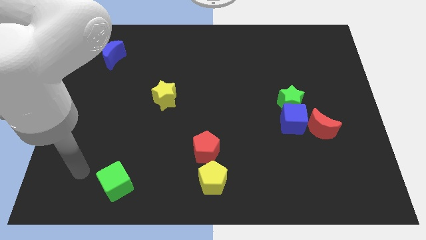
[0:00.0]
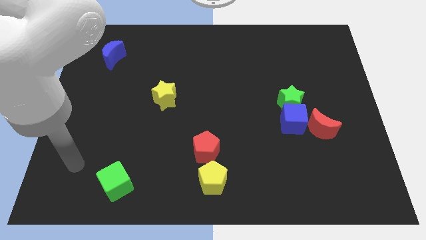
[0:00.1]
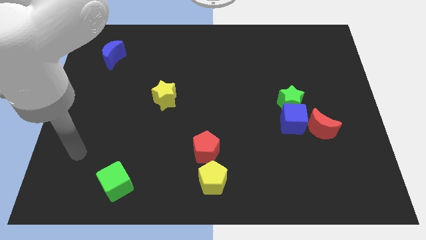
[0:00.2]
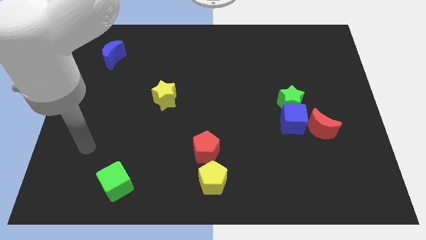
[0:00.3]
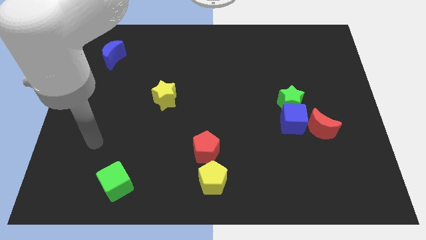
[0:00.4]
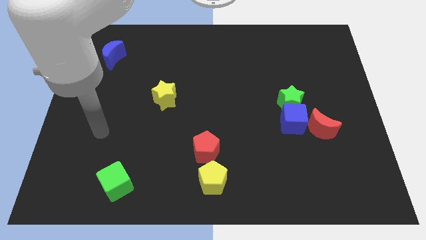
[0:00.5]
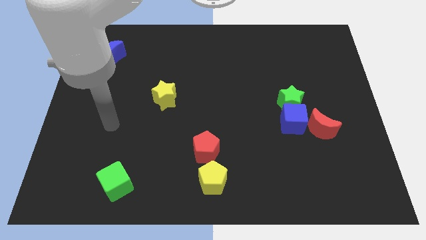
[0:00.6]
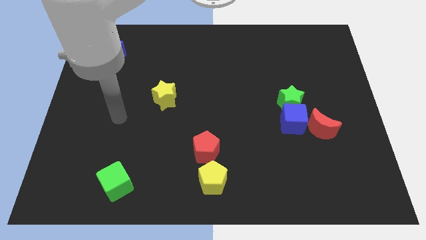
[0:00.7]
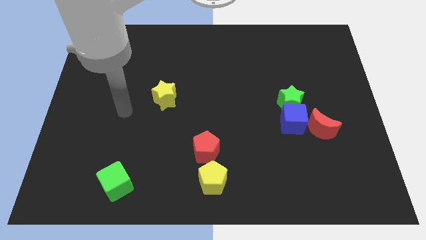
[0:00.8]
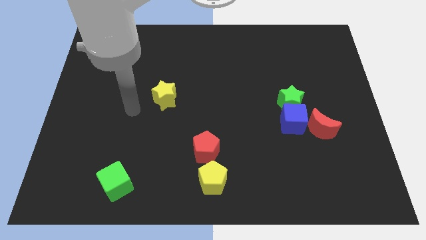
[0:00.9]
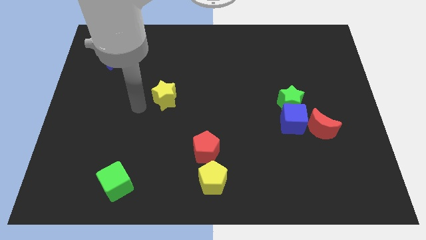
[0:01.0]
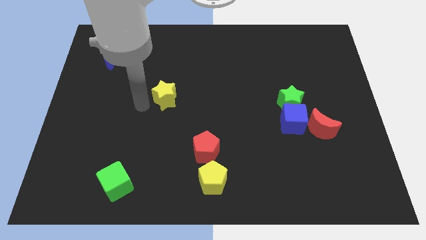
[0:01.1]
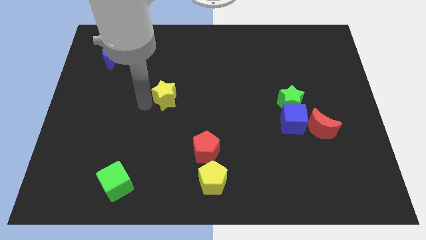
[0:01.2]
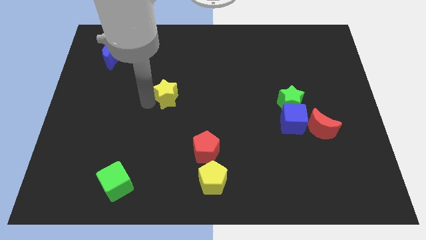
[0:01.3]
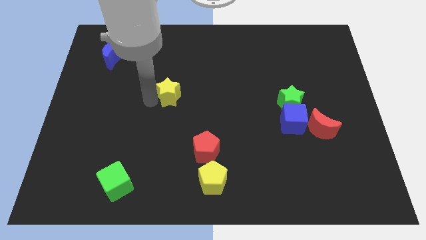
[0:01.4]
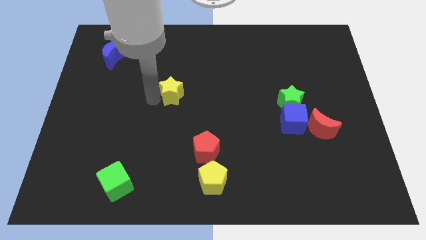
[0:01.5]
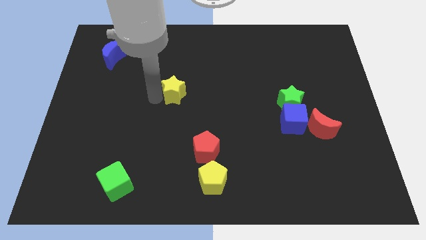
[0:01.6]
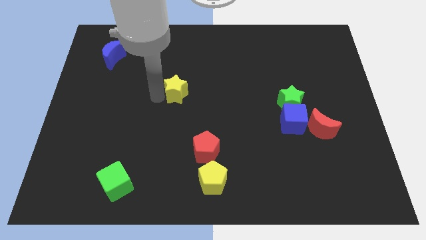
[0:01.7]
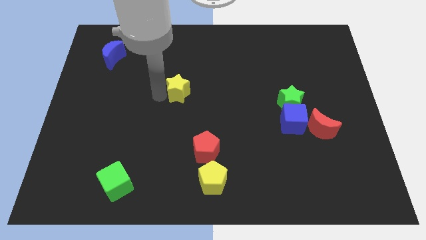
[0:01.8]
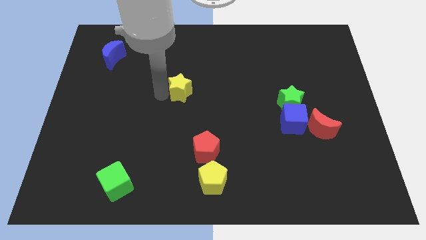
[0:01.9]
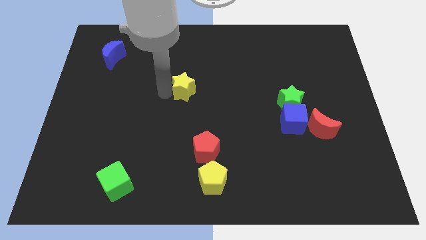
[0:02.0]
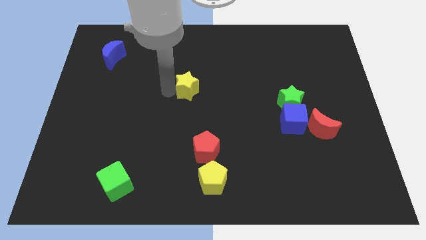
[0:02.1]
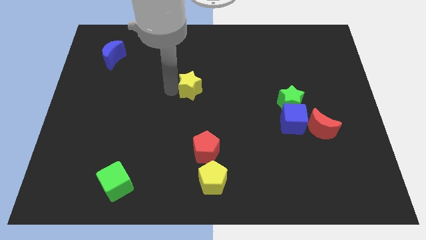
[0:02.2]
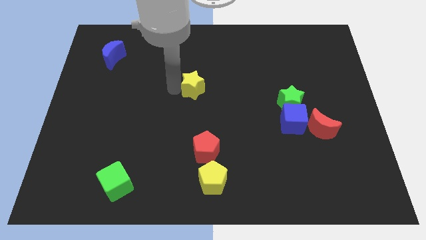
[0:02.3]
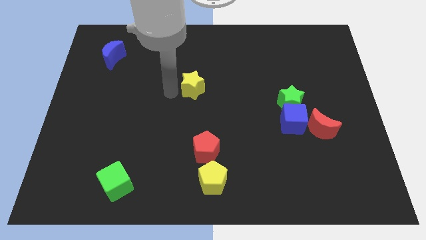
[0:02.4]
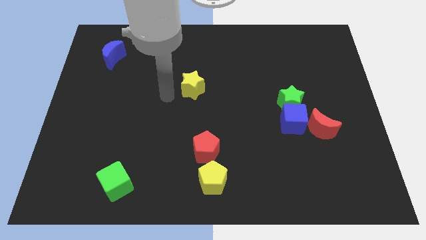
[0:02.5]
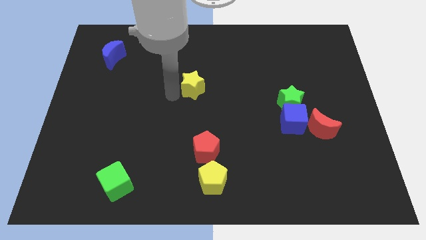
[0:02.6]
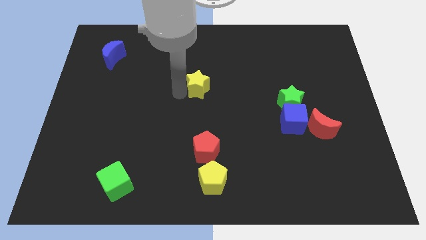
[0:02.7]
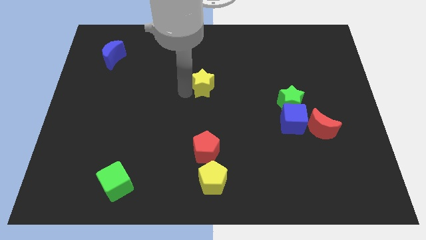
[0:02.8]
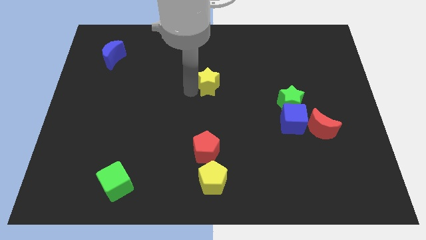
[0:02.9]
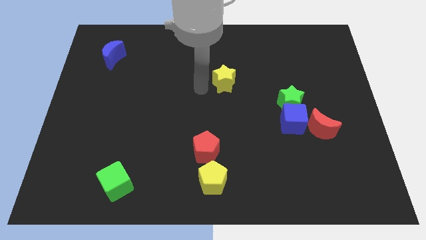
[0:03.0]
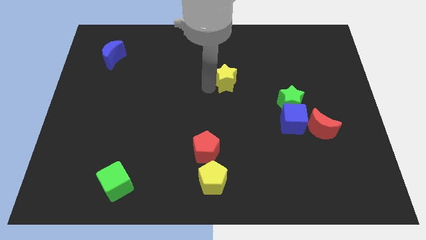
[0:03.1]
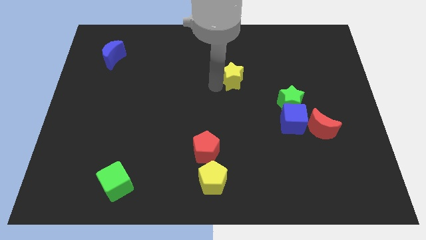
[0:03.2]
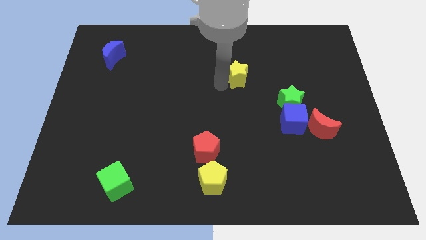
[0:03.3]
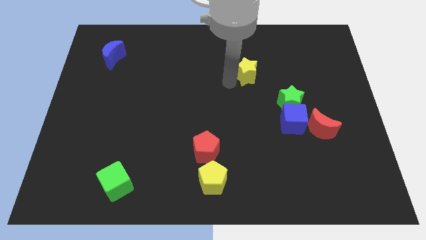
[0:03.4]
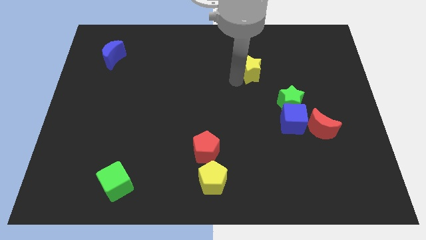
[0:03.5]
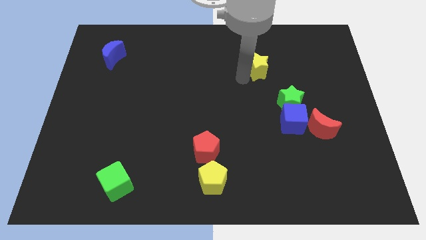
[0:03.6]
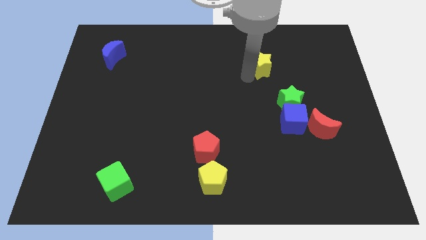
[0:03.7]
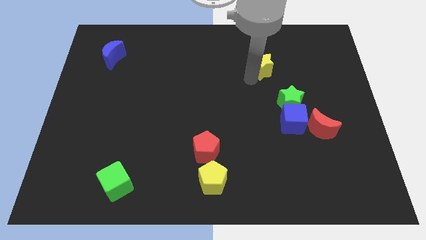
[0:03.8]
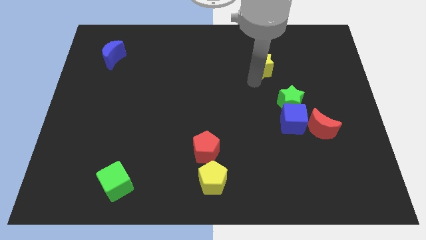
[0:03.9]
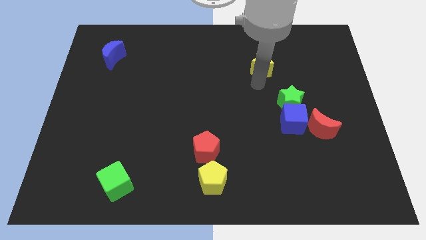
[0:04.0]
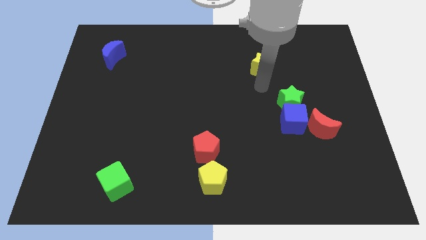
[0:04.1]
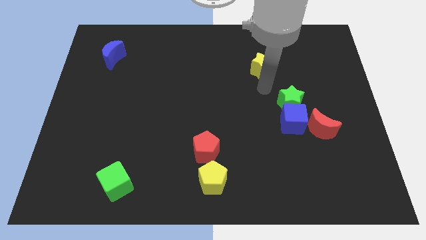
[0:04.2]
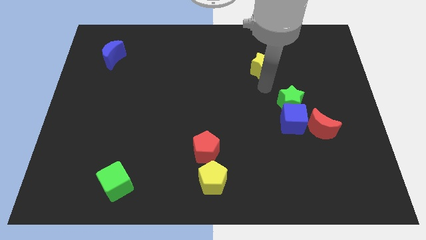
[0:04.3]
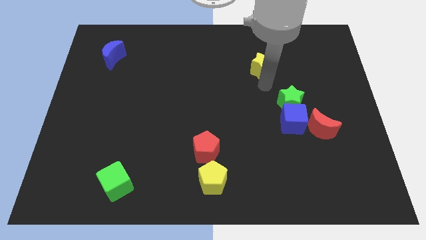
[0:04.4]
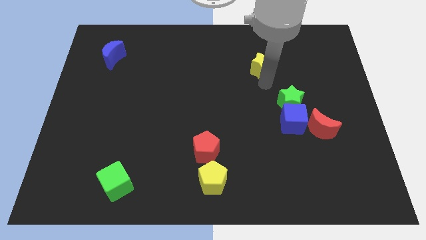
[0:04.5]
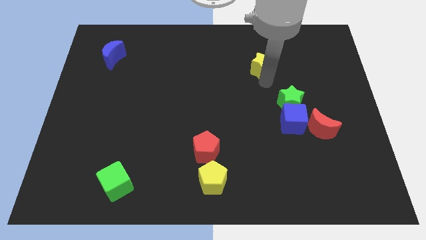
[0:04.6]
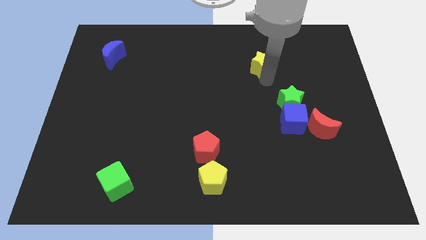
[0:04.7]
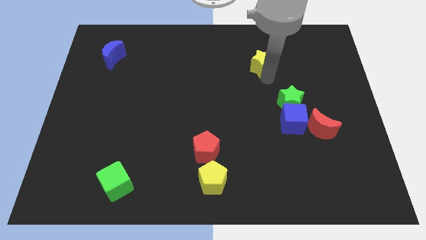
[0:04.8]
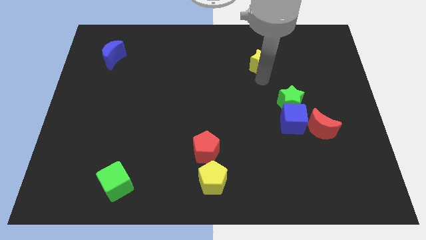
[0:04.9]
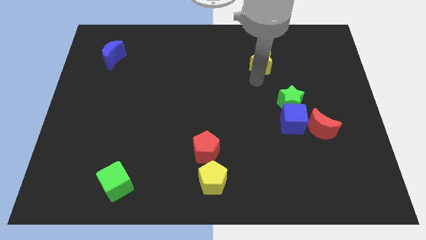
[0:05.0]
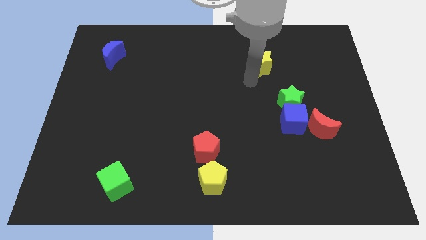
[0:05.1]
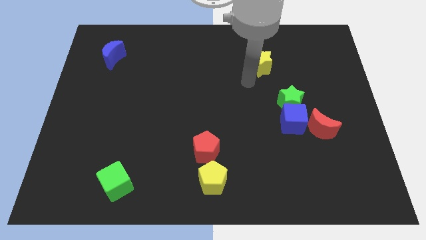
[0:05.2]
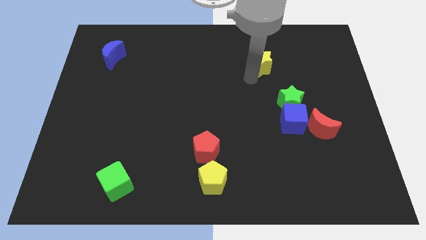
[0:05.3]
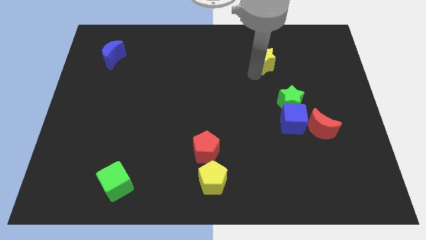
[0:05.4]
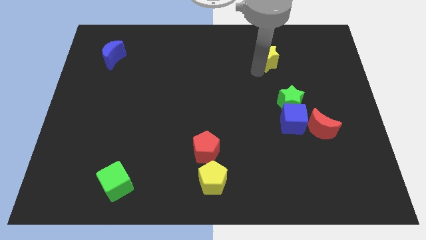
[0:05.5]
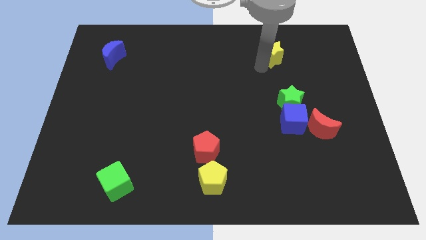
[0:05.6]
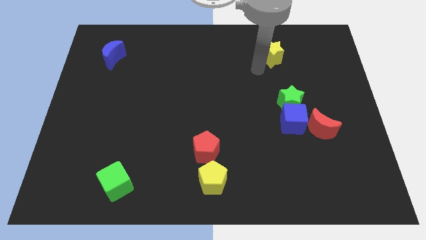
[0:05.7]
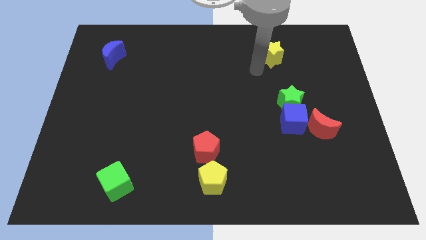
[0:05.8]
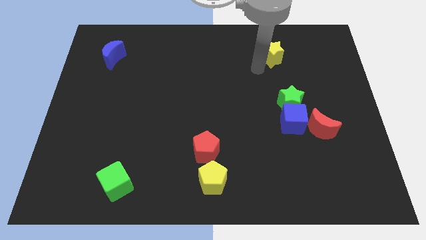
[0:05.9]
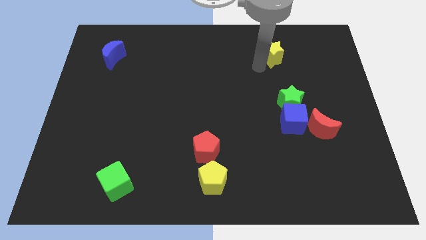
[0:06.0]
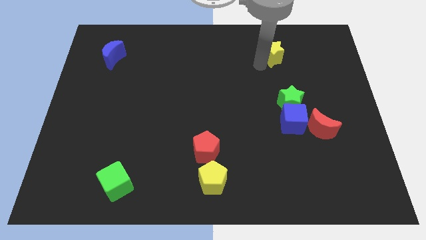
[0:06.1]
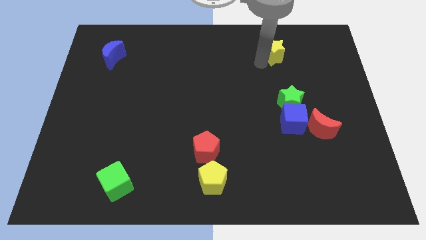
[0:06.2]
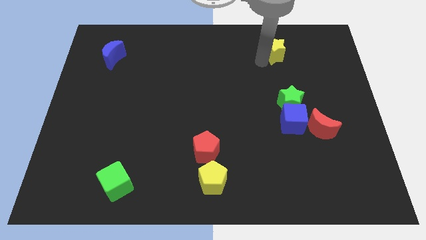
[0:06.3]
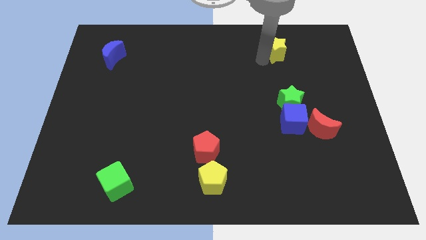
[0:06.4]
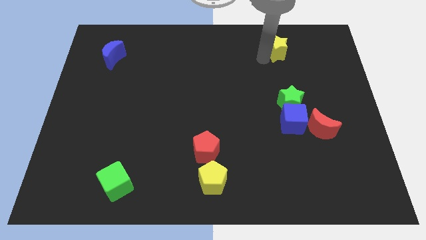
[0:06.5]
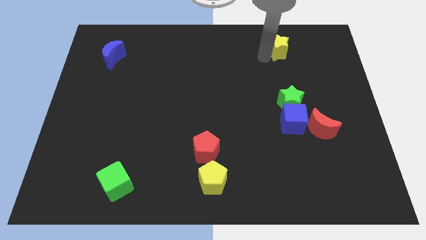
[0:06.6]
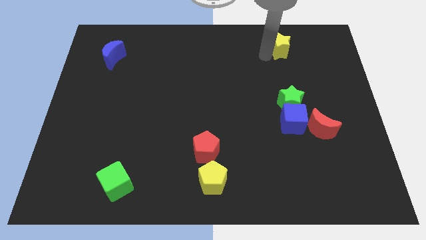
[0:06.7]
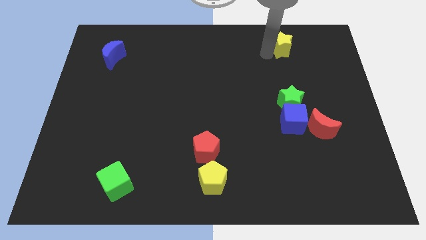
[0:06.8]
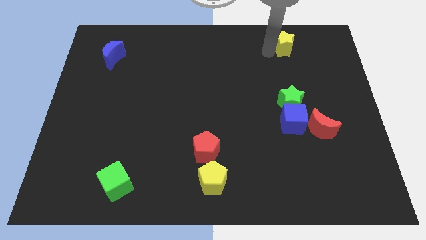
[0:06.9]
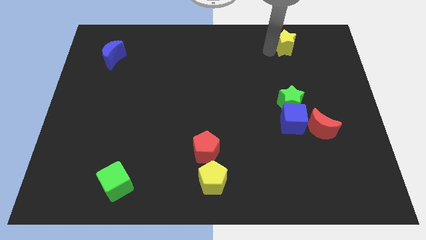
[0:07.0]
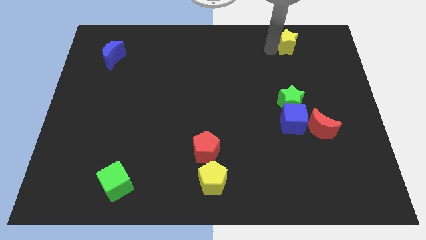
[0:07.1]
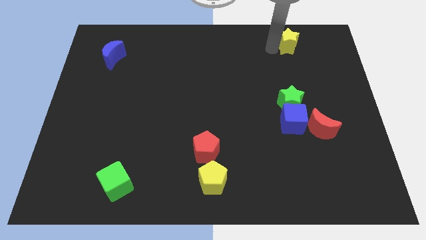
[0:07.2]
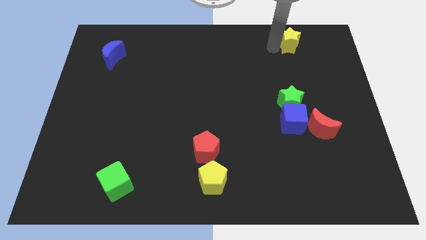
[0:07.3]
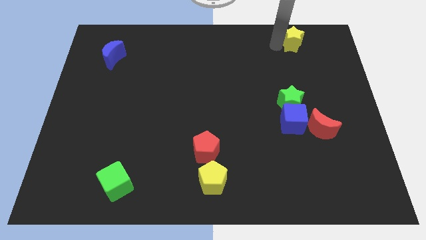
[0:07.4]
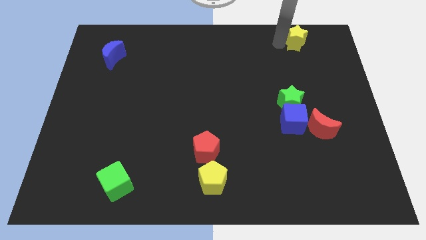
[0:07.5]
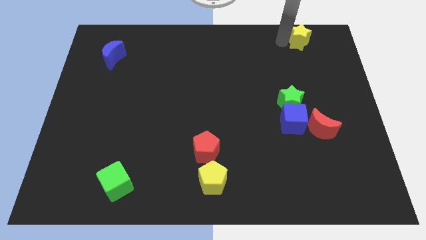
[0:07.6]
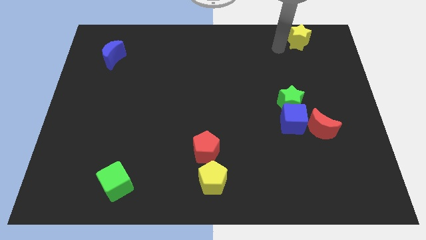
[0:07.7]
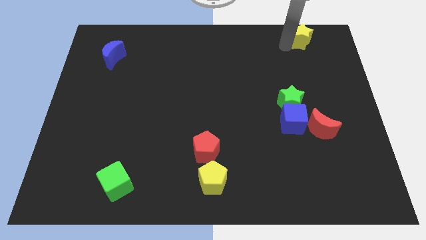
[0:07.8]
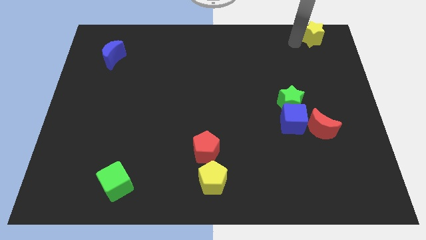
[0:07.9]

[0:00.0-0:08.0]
slide the yellow star to the top right corner
